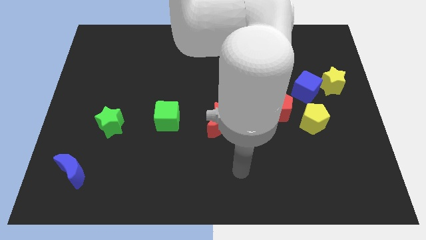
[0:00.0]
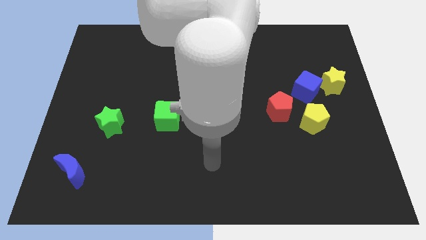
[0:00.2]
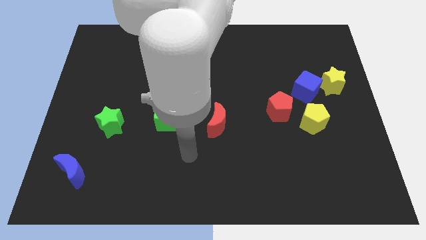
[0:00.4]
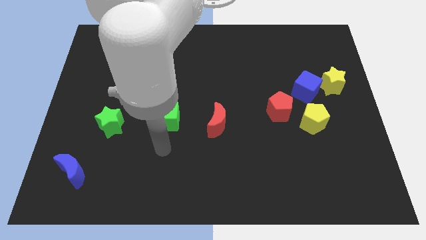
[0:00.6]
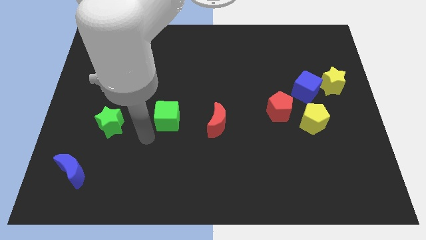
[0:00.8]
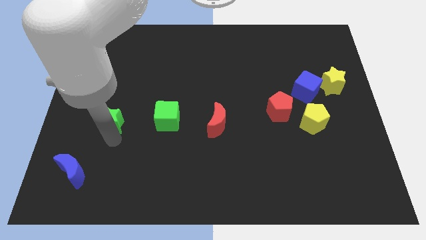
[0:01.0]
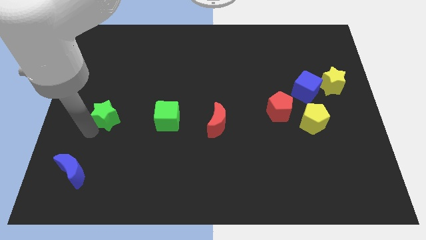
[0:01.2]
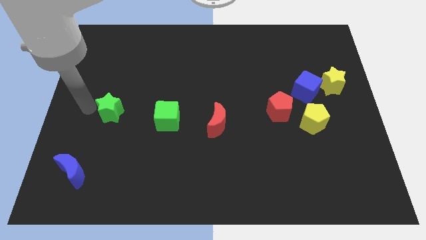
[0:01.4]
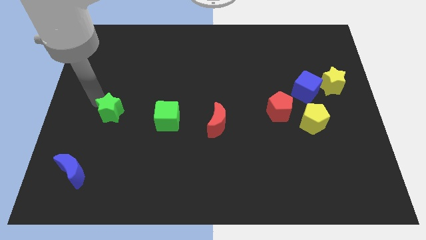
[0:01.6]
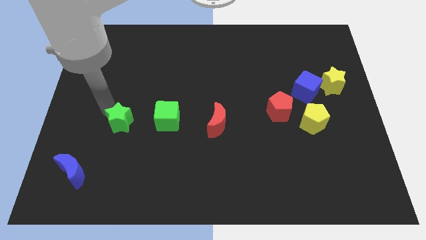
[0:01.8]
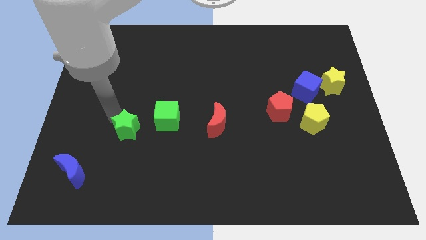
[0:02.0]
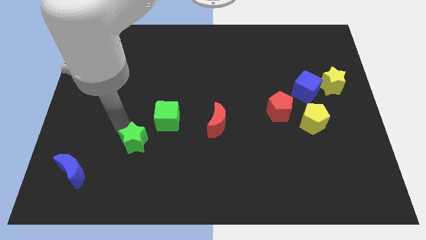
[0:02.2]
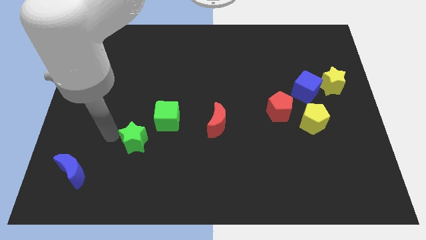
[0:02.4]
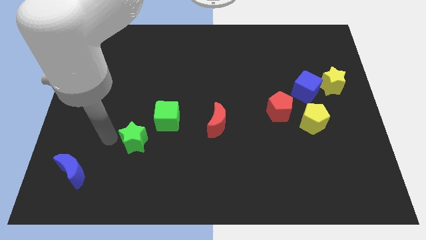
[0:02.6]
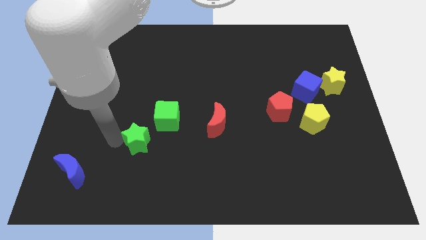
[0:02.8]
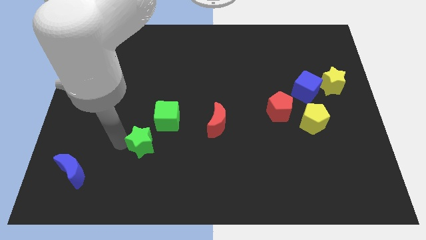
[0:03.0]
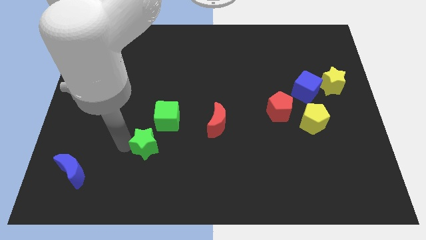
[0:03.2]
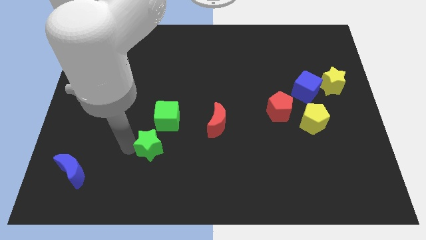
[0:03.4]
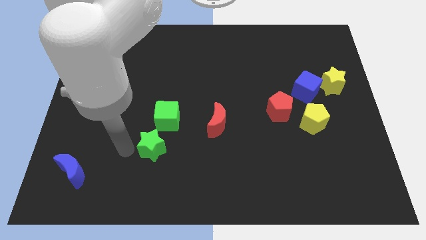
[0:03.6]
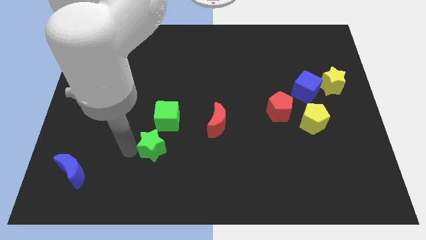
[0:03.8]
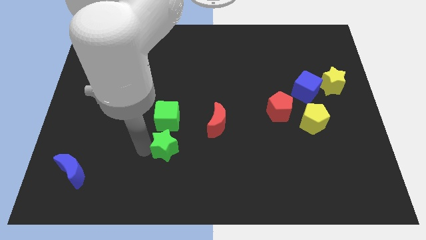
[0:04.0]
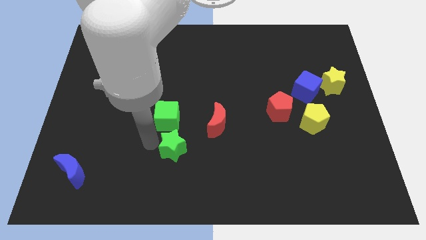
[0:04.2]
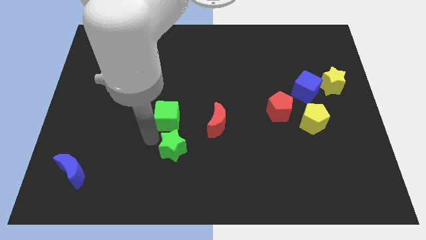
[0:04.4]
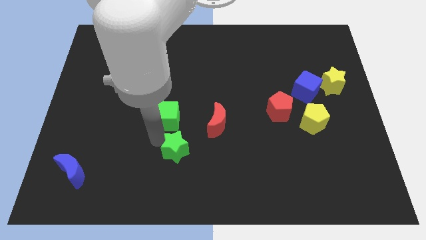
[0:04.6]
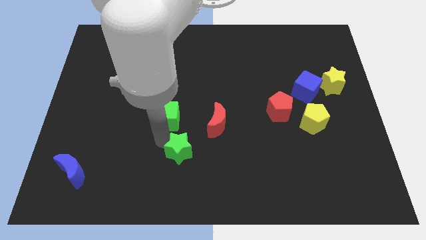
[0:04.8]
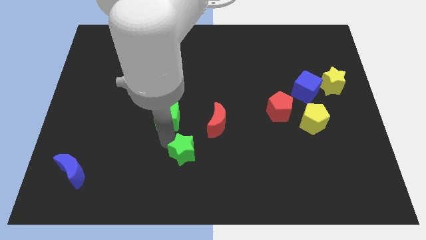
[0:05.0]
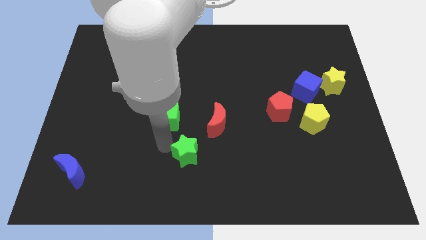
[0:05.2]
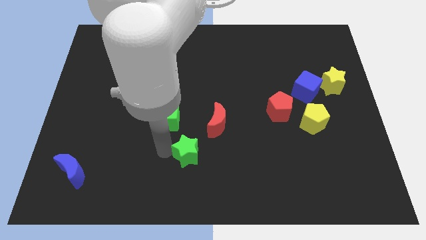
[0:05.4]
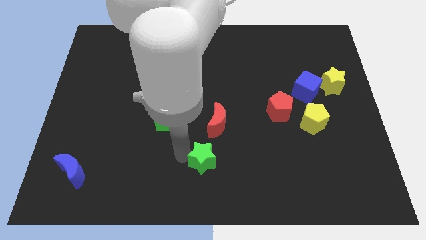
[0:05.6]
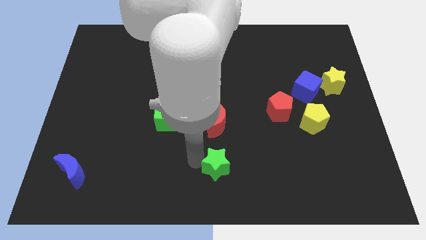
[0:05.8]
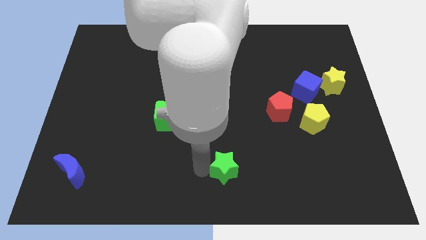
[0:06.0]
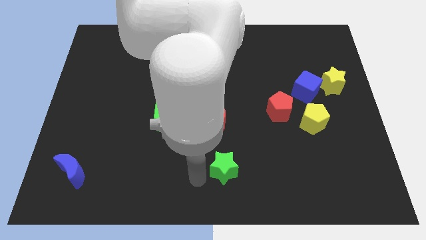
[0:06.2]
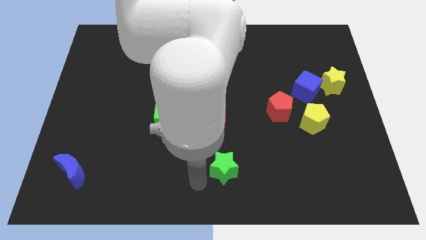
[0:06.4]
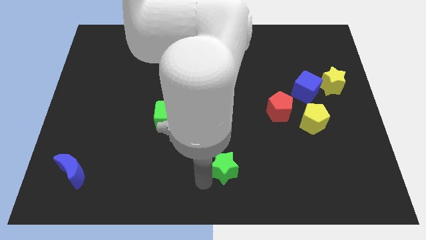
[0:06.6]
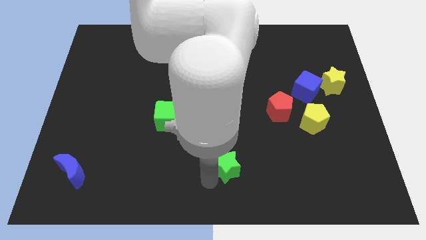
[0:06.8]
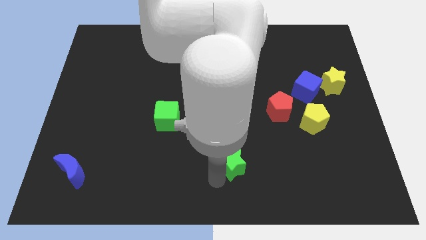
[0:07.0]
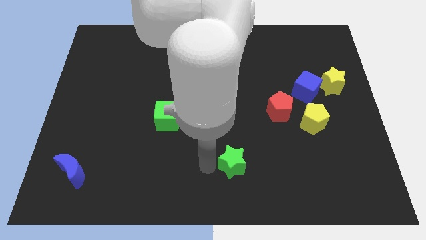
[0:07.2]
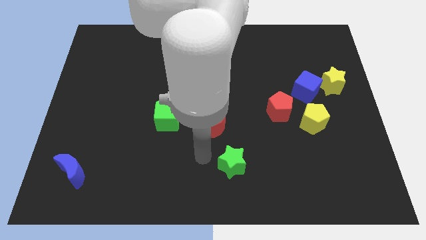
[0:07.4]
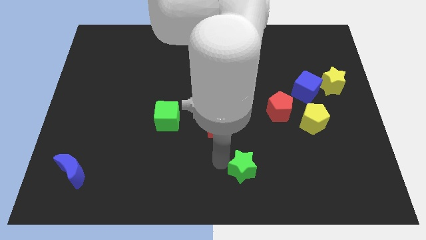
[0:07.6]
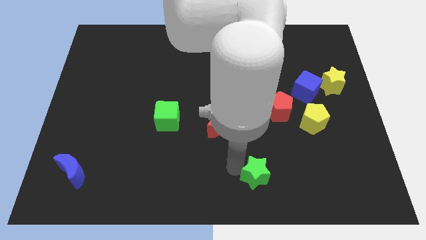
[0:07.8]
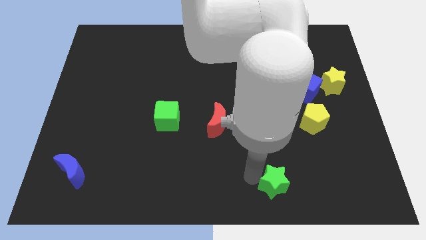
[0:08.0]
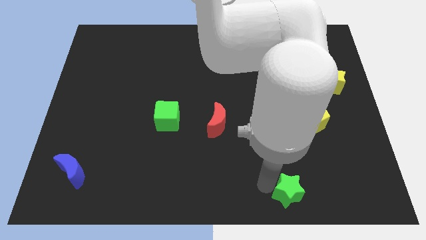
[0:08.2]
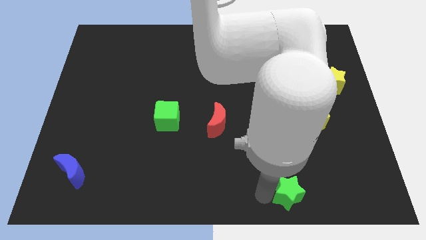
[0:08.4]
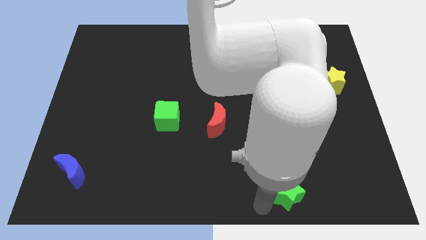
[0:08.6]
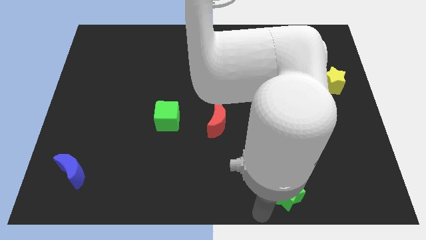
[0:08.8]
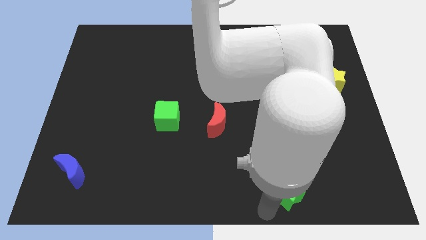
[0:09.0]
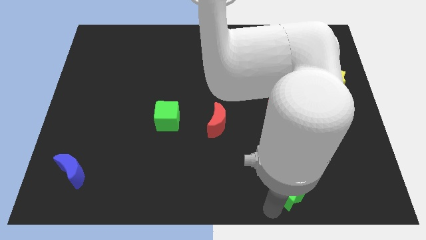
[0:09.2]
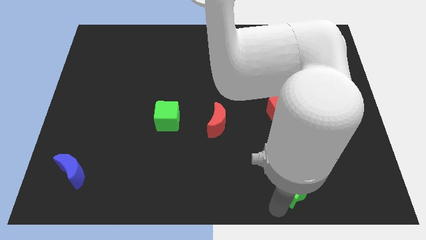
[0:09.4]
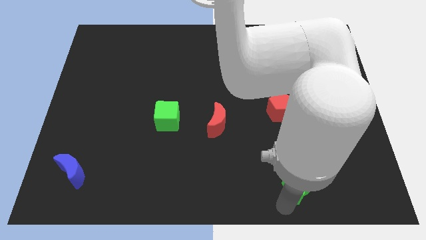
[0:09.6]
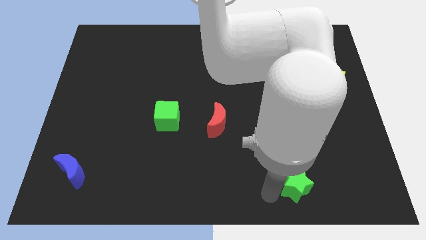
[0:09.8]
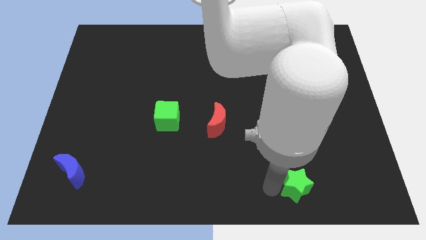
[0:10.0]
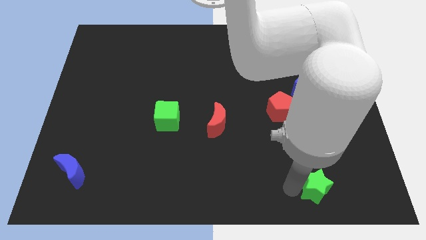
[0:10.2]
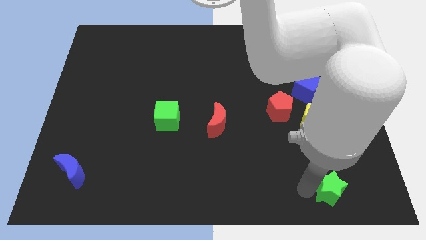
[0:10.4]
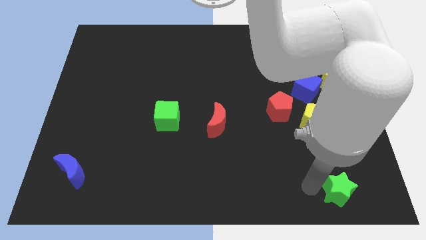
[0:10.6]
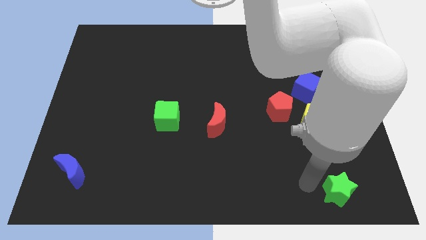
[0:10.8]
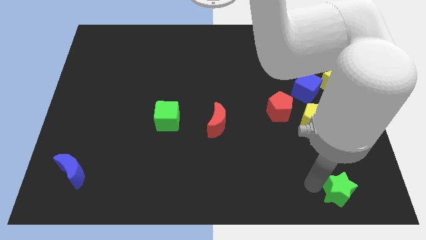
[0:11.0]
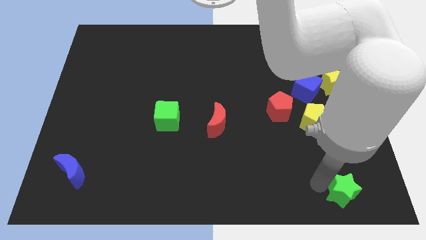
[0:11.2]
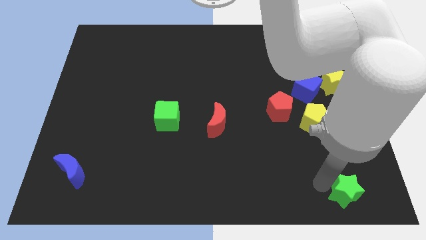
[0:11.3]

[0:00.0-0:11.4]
move the green star to the bottom right corner

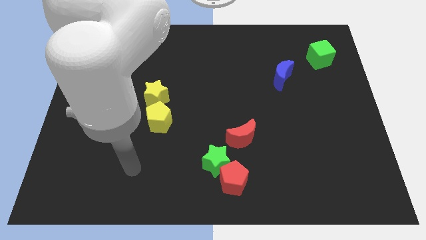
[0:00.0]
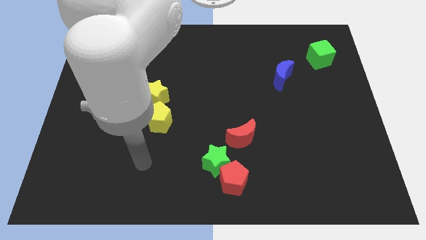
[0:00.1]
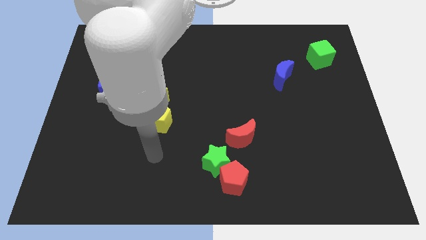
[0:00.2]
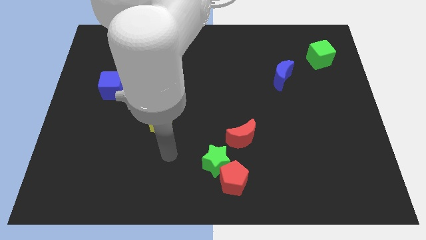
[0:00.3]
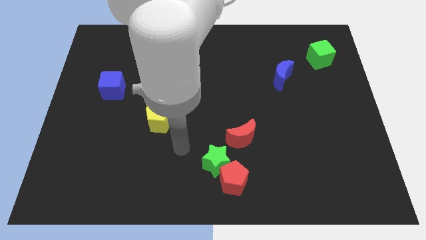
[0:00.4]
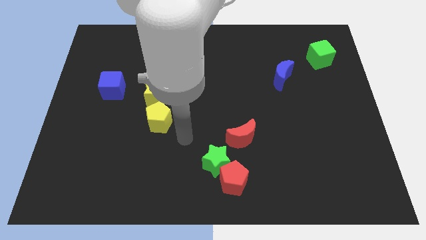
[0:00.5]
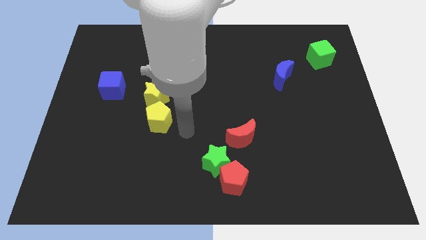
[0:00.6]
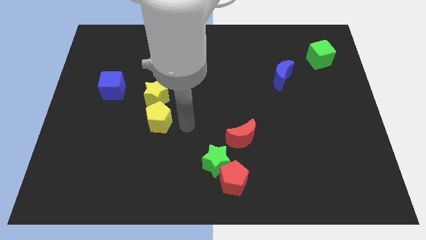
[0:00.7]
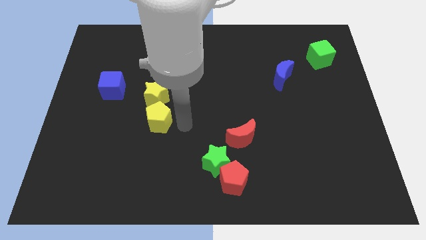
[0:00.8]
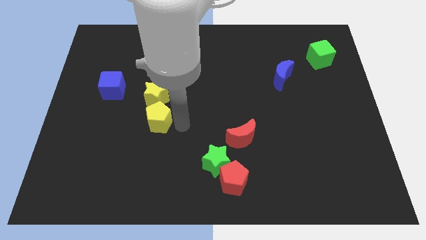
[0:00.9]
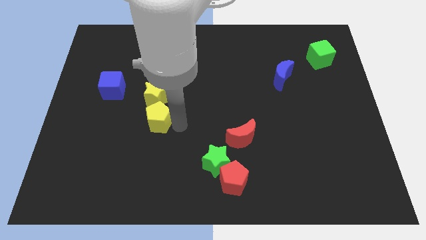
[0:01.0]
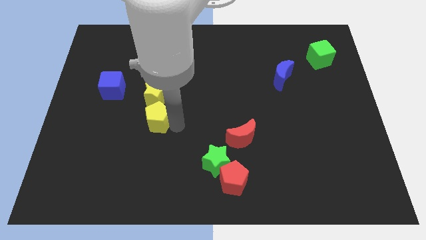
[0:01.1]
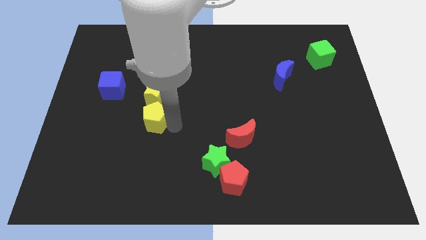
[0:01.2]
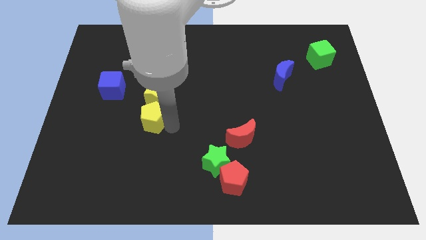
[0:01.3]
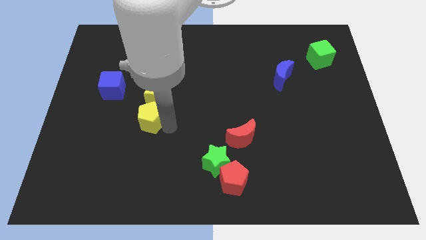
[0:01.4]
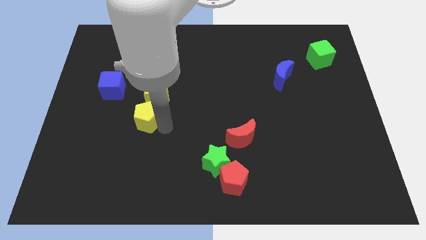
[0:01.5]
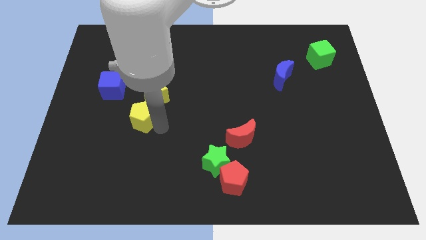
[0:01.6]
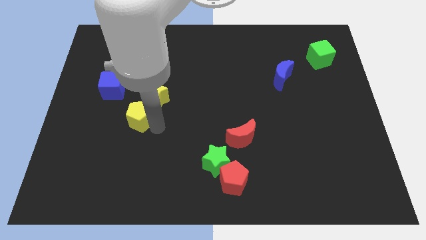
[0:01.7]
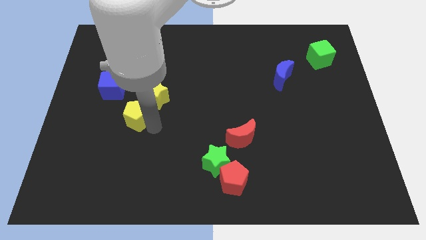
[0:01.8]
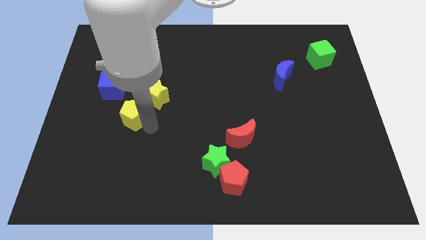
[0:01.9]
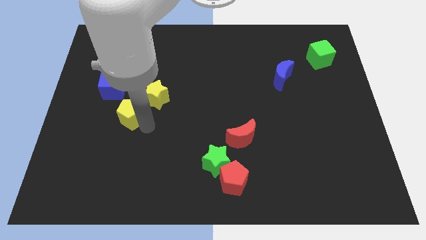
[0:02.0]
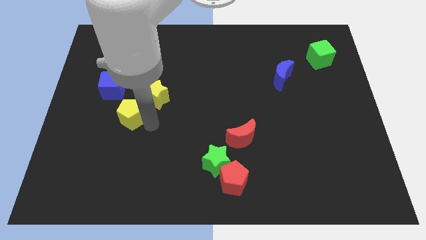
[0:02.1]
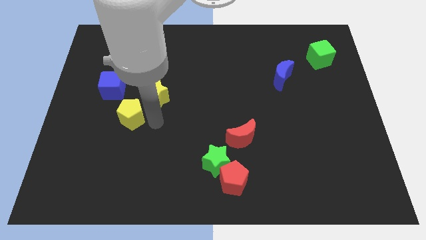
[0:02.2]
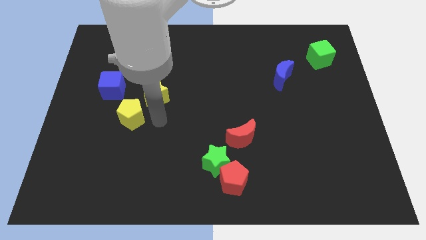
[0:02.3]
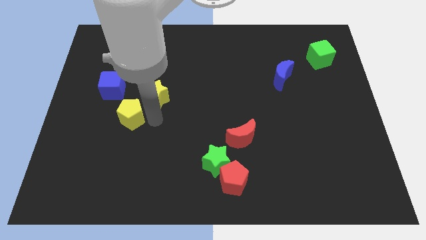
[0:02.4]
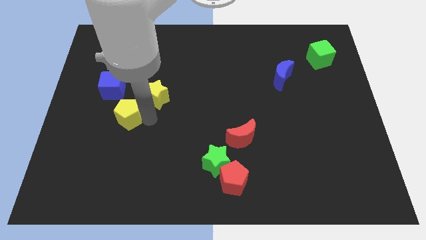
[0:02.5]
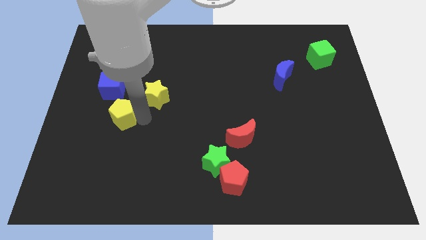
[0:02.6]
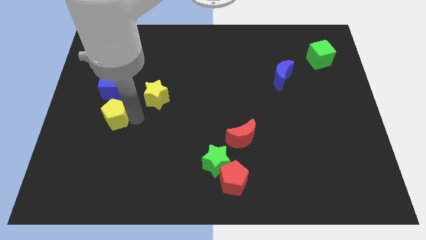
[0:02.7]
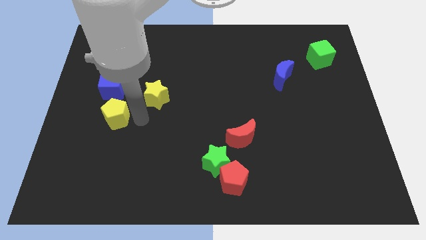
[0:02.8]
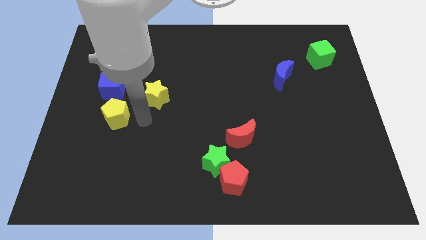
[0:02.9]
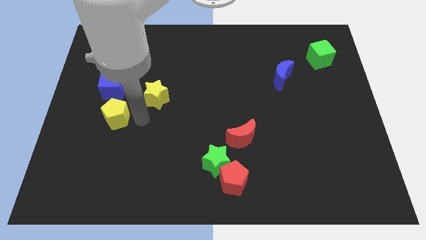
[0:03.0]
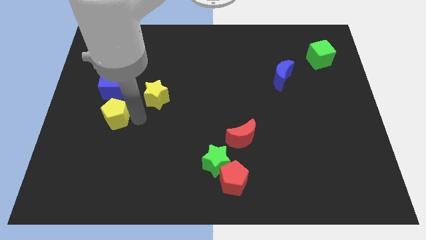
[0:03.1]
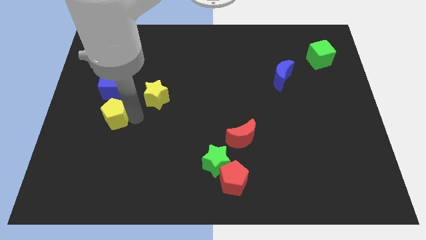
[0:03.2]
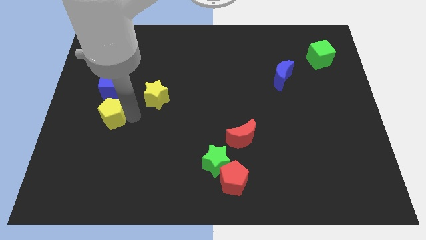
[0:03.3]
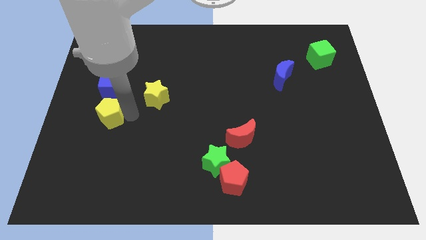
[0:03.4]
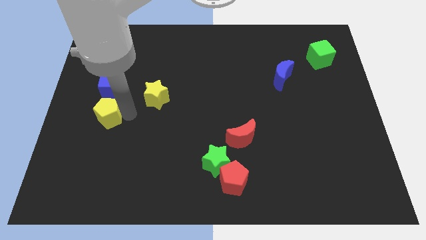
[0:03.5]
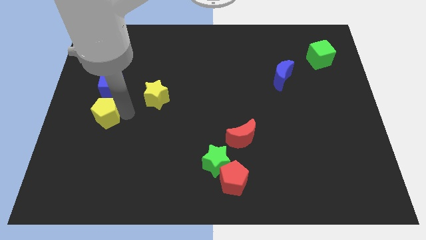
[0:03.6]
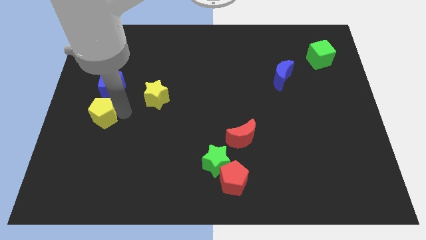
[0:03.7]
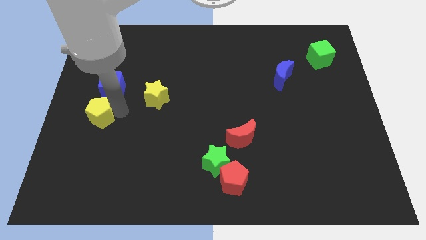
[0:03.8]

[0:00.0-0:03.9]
push the yellow pentagon to the center left
